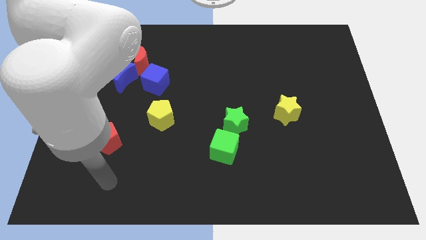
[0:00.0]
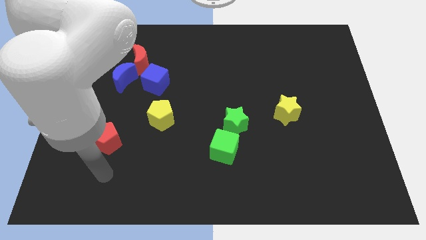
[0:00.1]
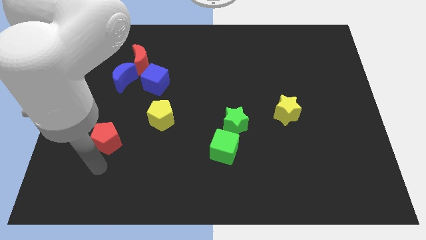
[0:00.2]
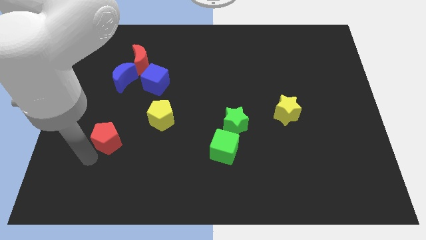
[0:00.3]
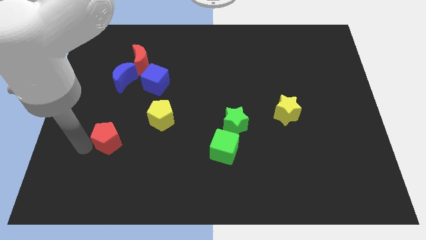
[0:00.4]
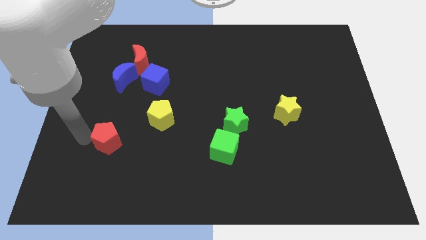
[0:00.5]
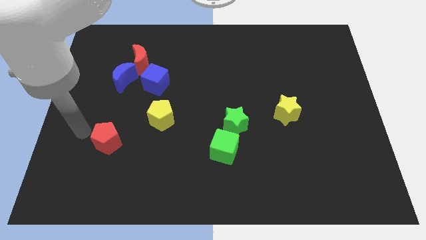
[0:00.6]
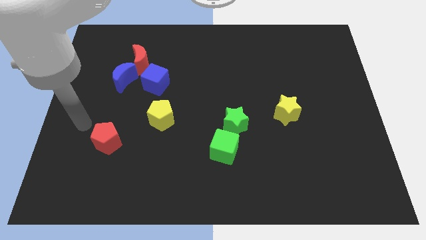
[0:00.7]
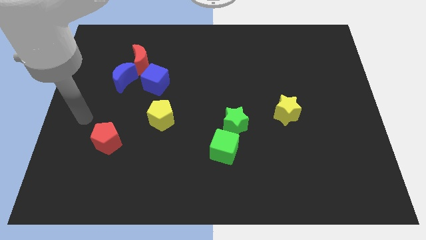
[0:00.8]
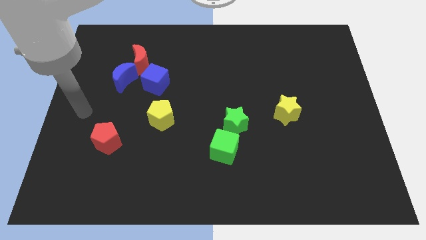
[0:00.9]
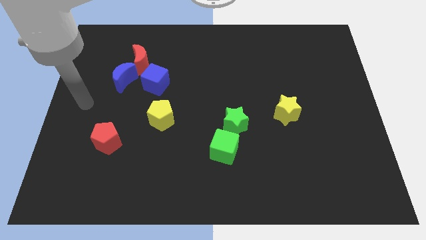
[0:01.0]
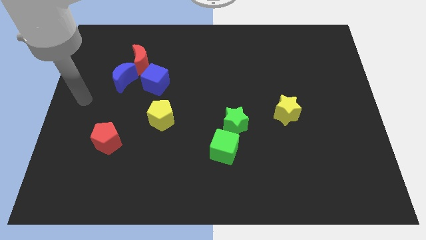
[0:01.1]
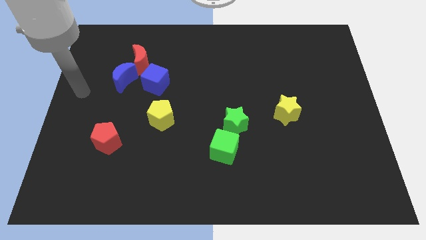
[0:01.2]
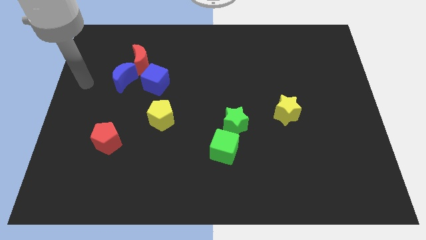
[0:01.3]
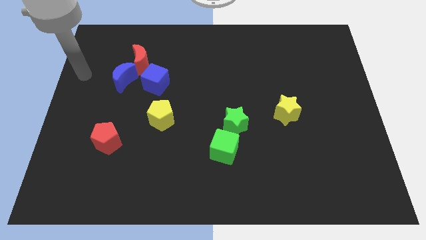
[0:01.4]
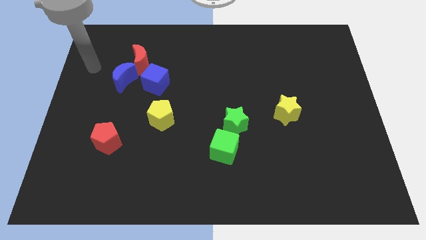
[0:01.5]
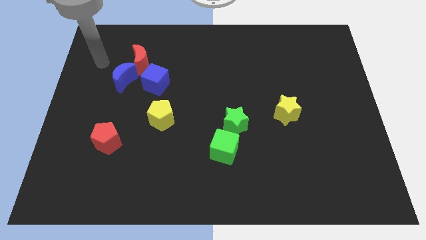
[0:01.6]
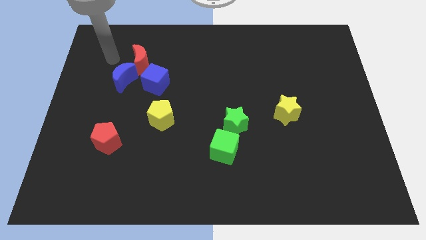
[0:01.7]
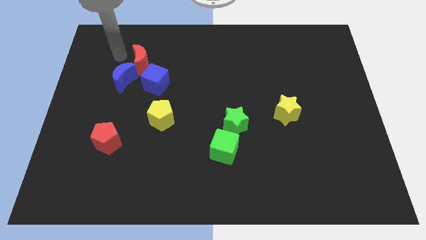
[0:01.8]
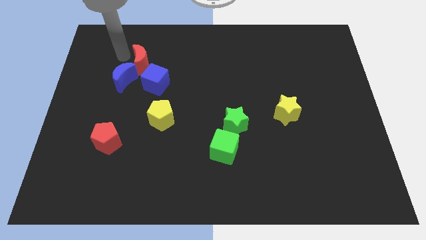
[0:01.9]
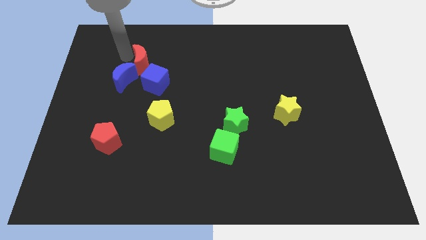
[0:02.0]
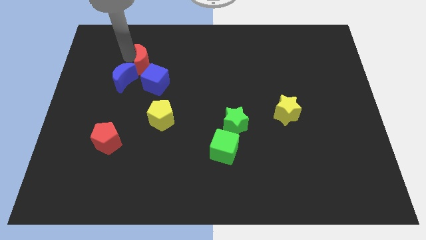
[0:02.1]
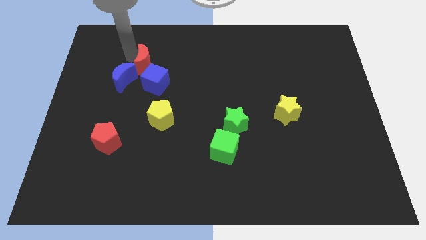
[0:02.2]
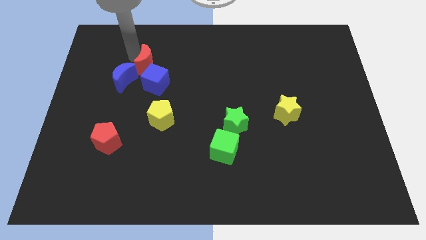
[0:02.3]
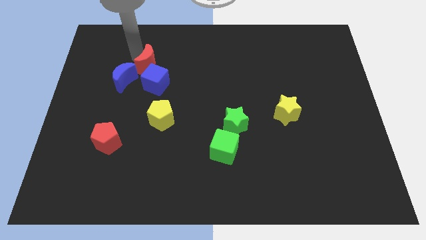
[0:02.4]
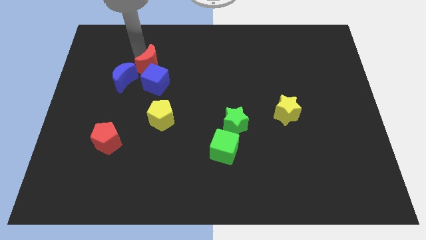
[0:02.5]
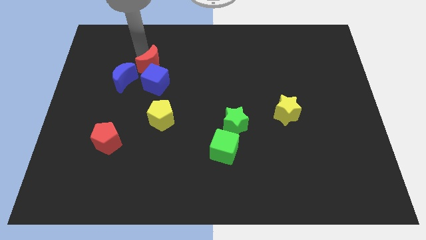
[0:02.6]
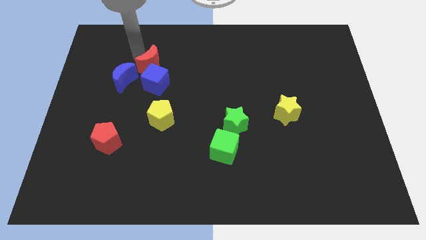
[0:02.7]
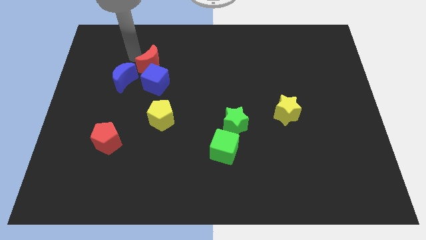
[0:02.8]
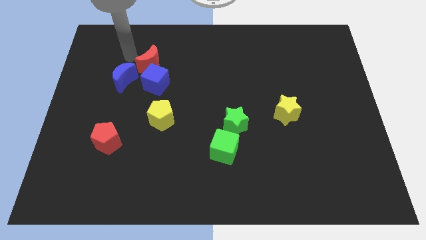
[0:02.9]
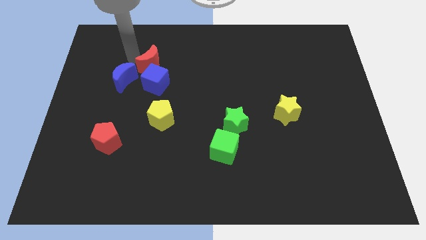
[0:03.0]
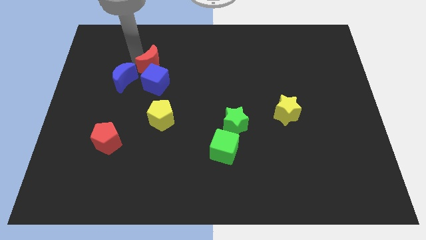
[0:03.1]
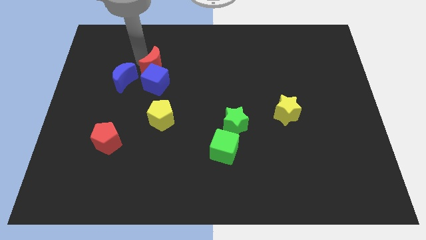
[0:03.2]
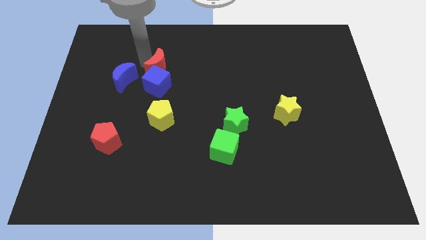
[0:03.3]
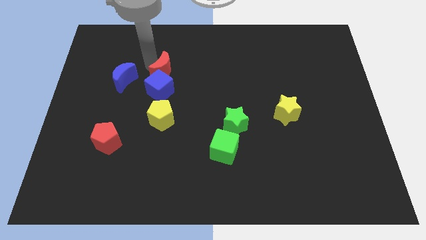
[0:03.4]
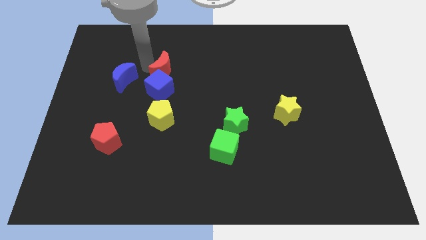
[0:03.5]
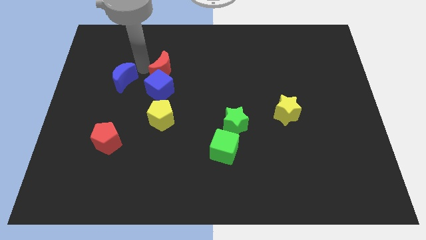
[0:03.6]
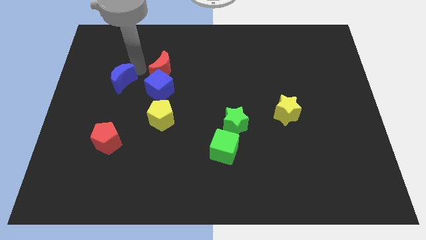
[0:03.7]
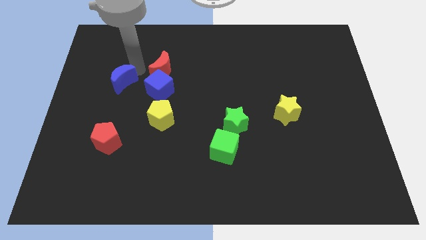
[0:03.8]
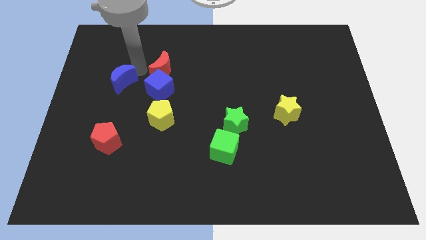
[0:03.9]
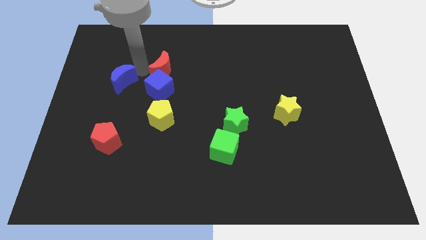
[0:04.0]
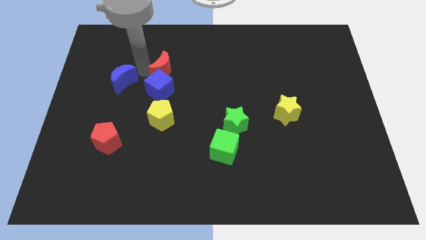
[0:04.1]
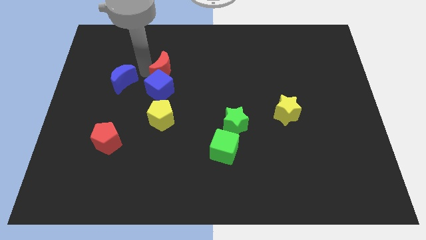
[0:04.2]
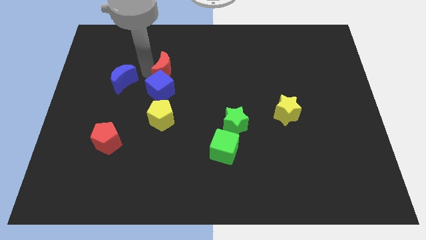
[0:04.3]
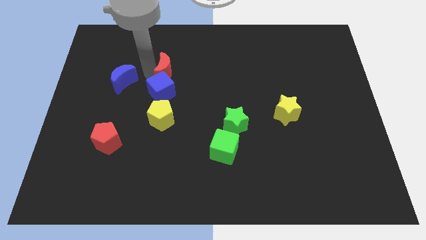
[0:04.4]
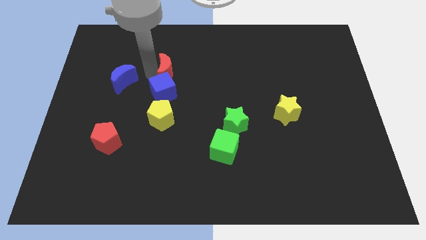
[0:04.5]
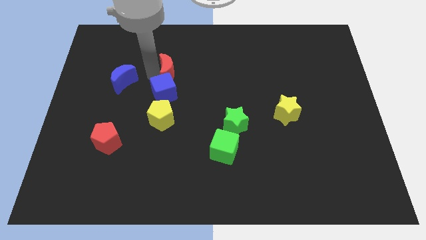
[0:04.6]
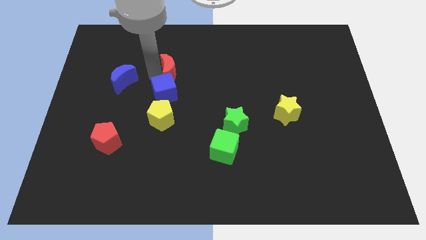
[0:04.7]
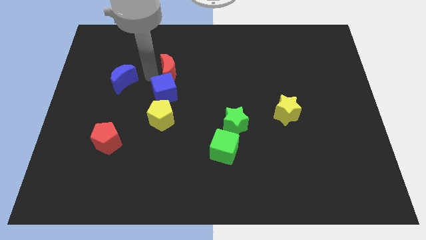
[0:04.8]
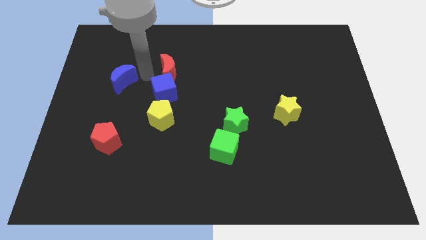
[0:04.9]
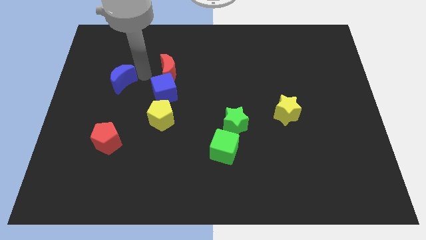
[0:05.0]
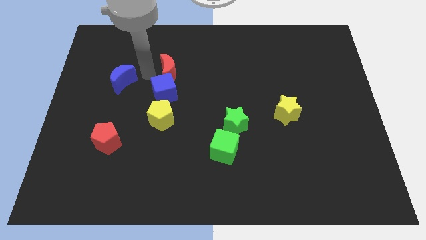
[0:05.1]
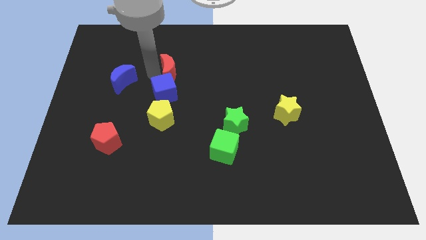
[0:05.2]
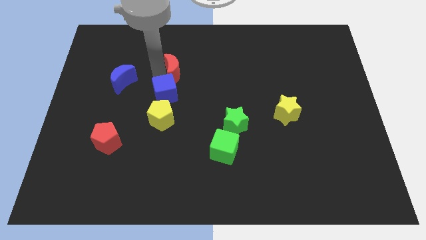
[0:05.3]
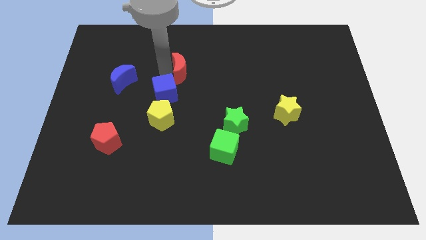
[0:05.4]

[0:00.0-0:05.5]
put the red moon to the center of the board

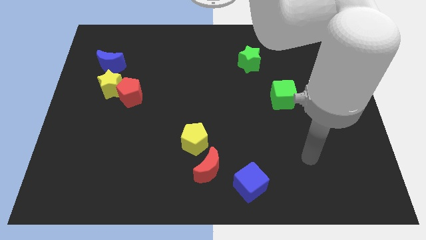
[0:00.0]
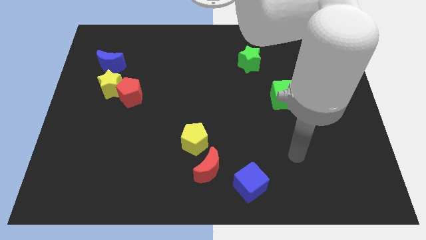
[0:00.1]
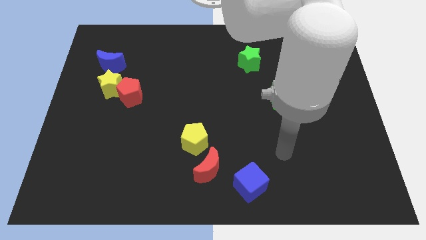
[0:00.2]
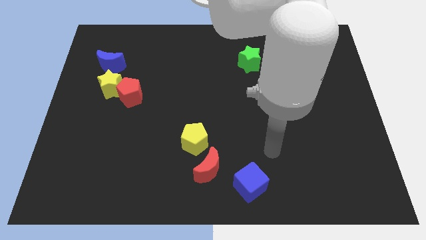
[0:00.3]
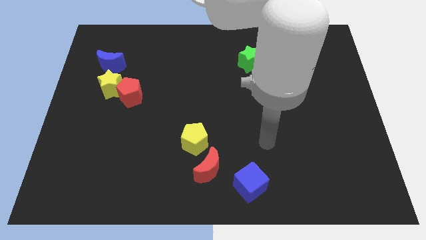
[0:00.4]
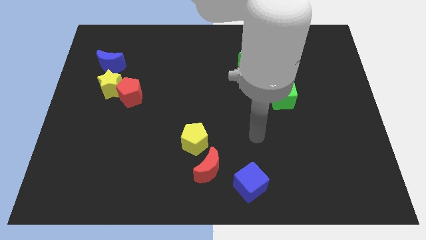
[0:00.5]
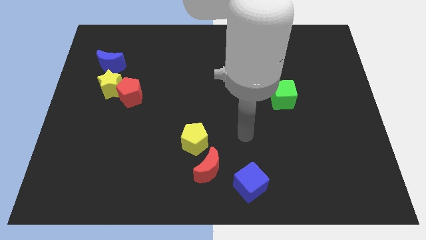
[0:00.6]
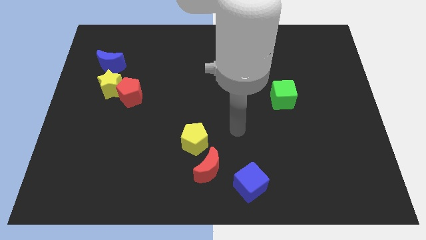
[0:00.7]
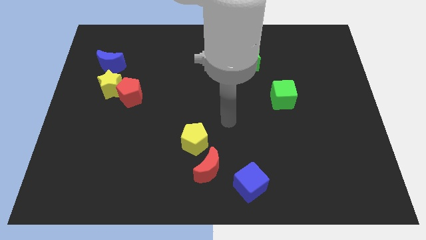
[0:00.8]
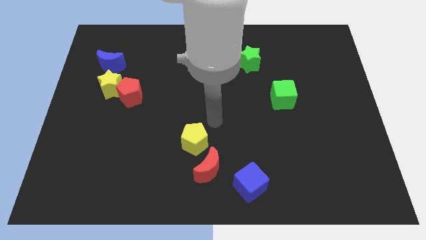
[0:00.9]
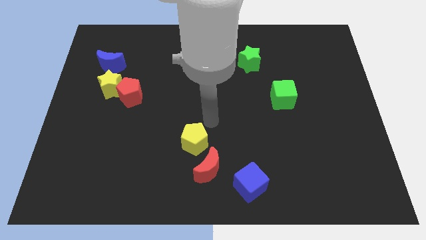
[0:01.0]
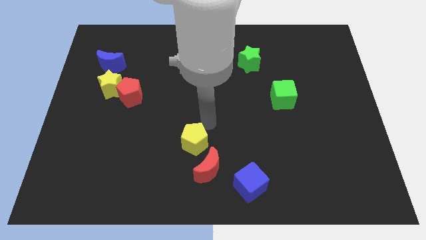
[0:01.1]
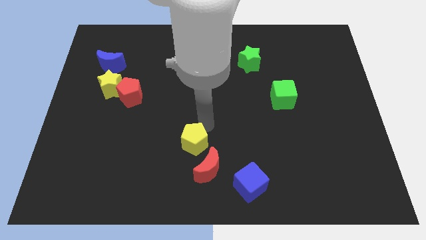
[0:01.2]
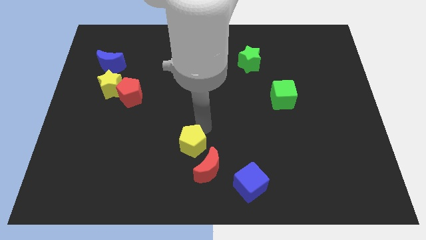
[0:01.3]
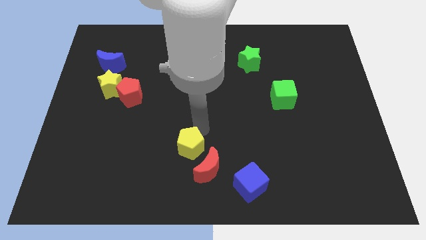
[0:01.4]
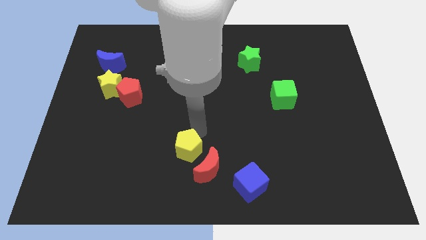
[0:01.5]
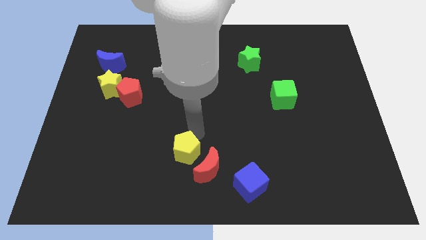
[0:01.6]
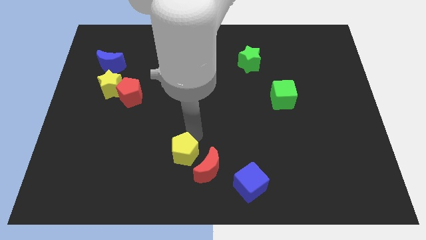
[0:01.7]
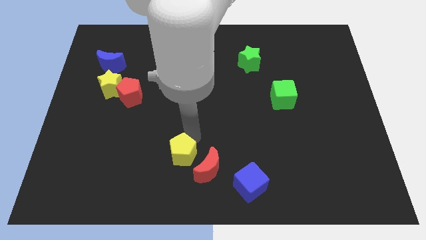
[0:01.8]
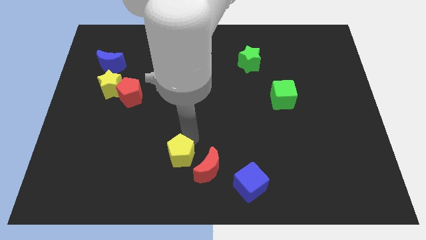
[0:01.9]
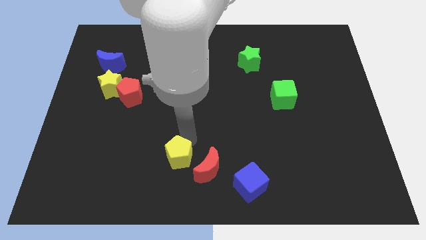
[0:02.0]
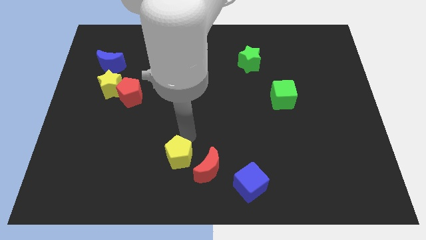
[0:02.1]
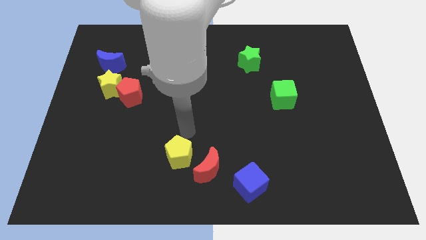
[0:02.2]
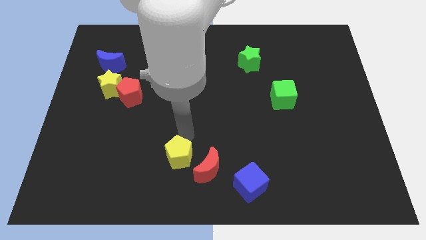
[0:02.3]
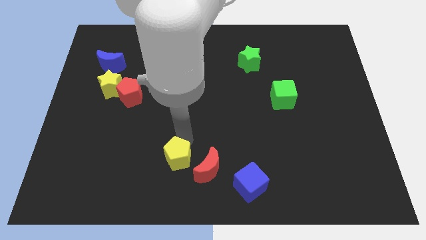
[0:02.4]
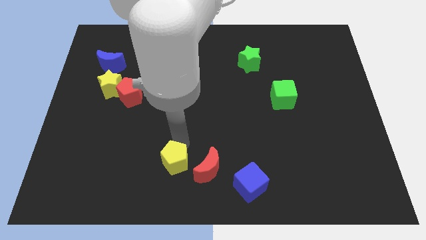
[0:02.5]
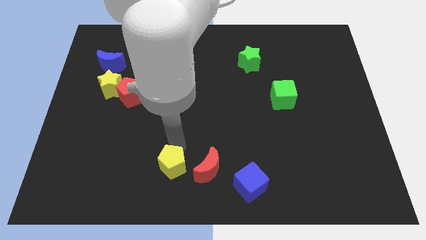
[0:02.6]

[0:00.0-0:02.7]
put the yellow pentagon to the bottom side
